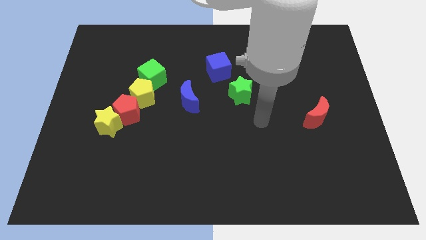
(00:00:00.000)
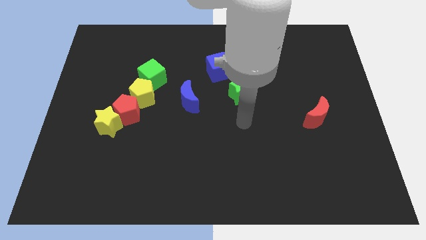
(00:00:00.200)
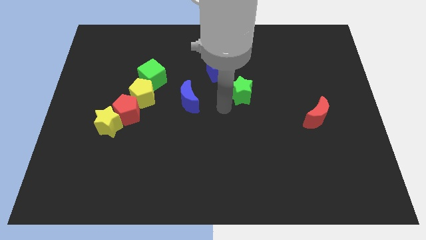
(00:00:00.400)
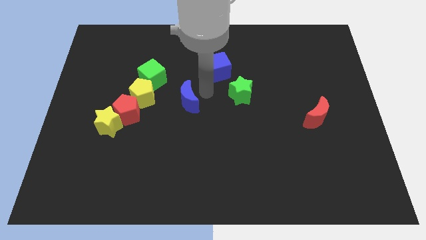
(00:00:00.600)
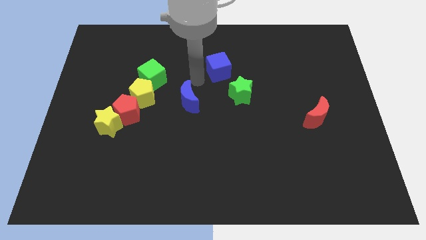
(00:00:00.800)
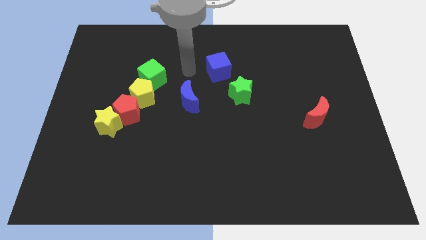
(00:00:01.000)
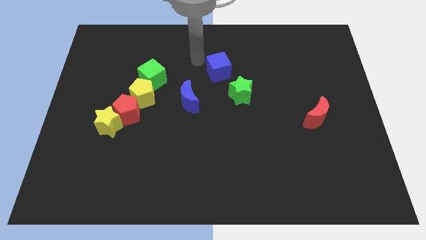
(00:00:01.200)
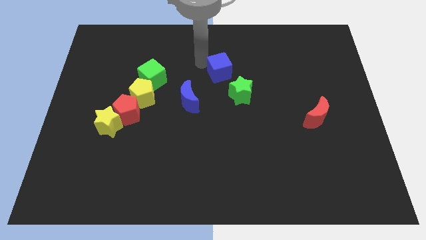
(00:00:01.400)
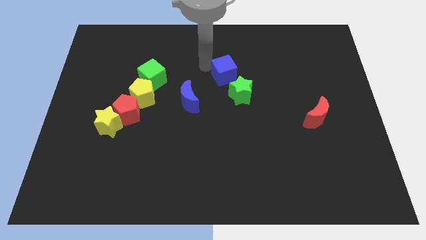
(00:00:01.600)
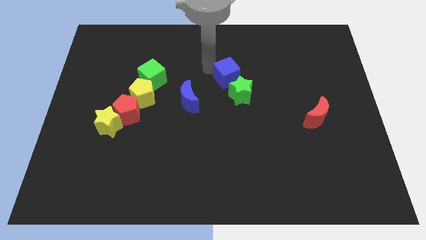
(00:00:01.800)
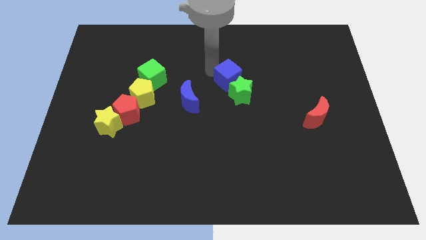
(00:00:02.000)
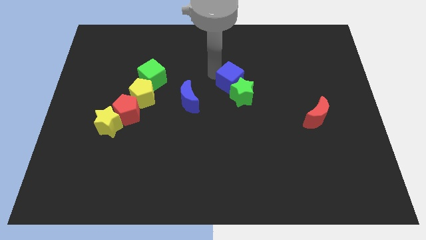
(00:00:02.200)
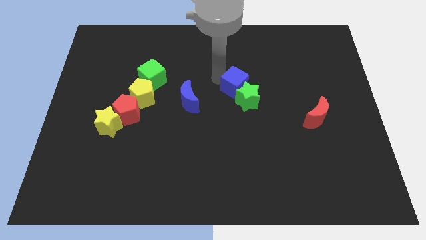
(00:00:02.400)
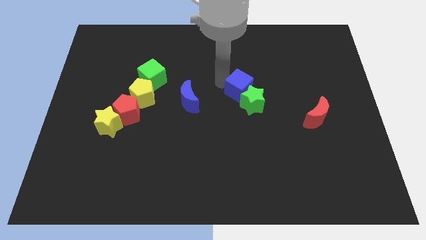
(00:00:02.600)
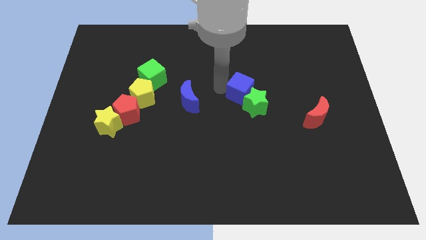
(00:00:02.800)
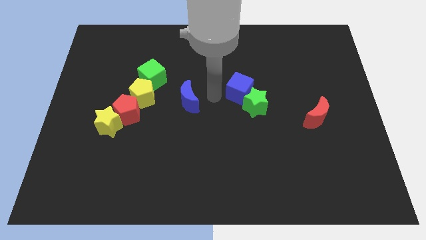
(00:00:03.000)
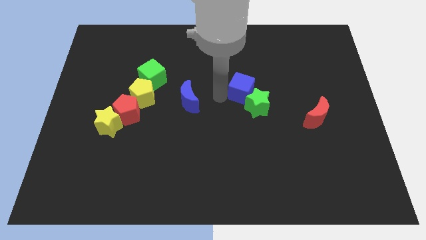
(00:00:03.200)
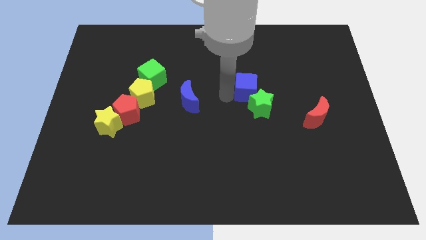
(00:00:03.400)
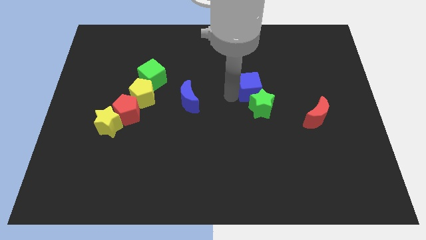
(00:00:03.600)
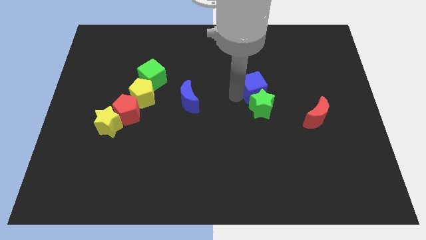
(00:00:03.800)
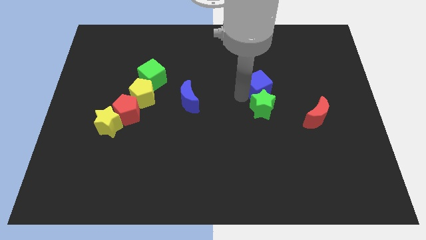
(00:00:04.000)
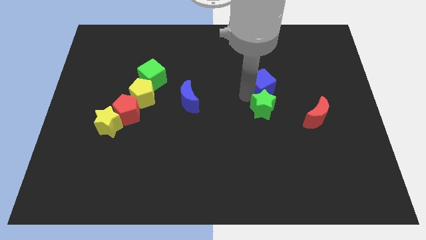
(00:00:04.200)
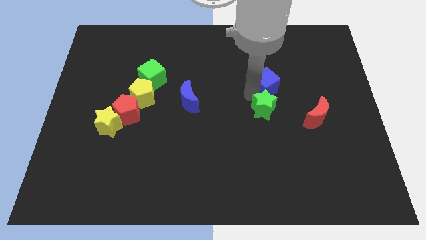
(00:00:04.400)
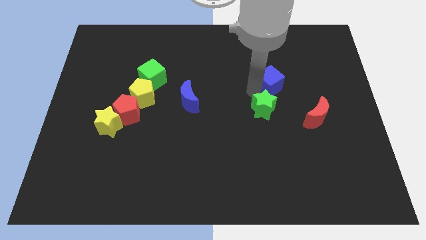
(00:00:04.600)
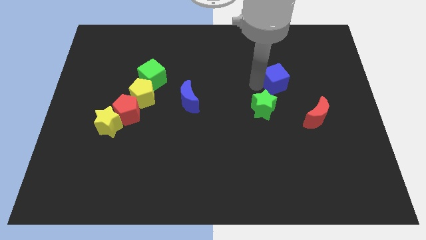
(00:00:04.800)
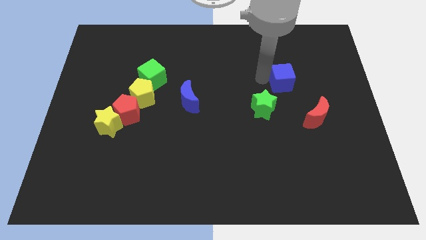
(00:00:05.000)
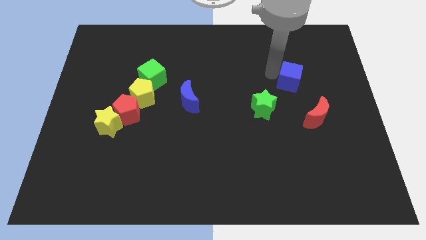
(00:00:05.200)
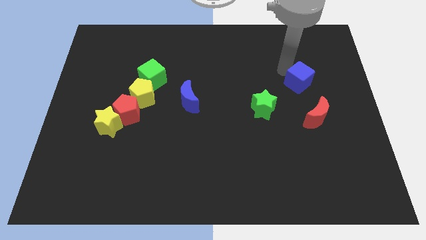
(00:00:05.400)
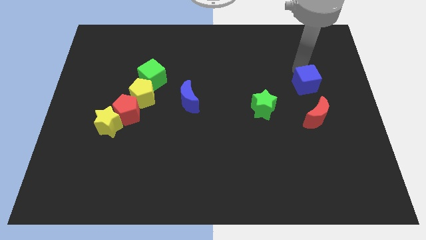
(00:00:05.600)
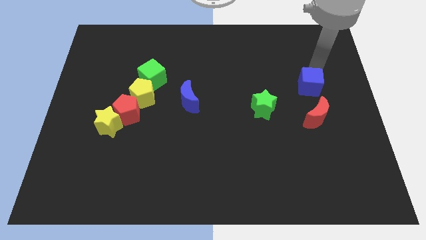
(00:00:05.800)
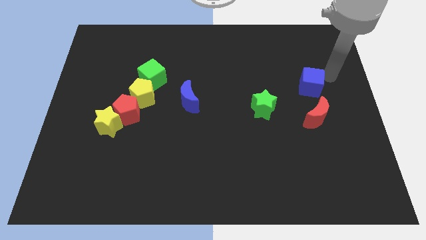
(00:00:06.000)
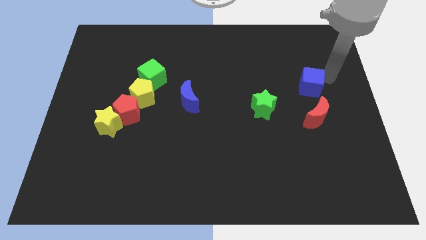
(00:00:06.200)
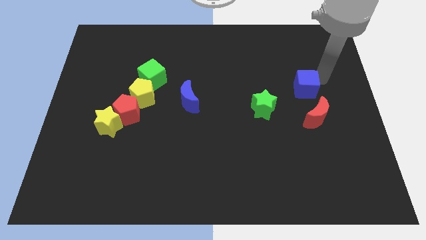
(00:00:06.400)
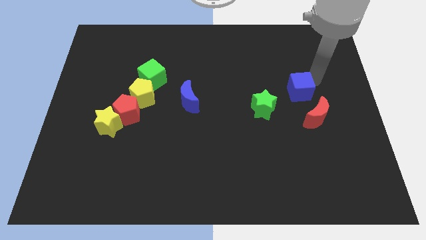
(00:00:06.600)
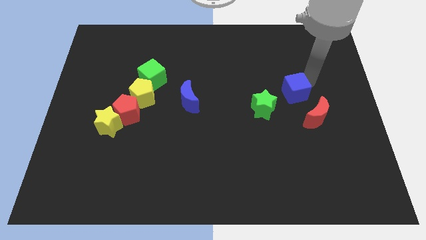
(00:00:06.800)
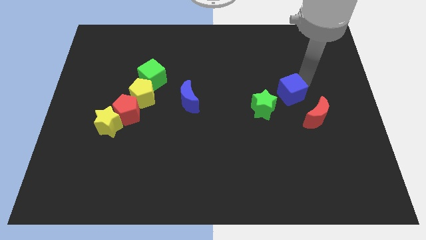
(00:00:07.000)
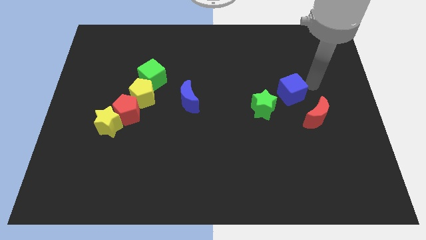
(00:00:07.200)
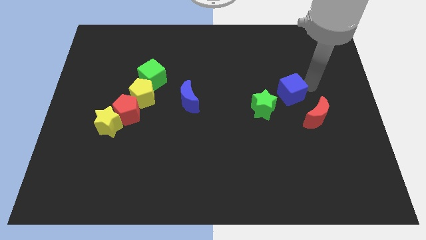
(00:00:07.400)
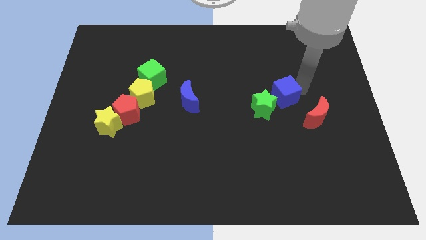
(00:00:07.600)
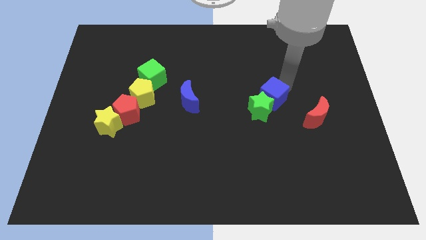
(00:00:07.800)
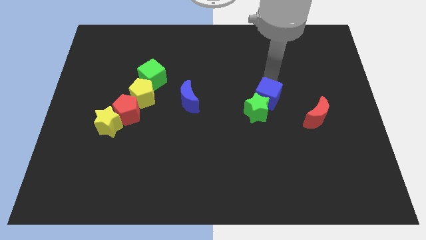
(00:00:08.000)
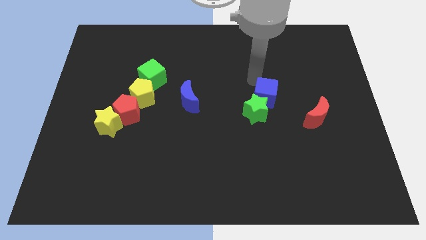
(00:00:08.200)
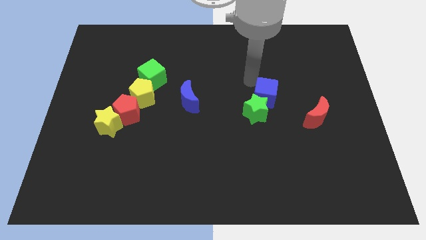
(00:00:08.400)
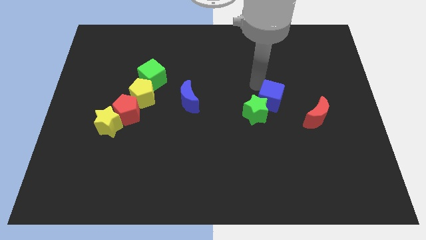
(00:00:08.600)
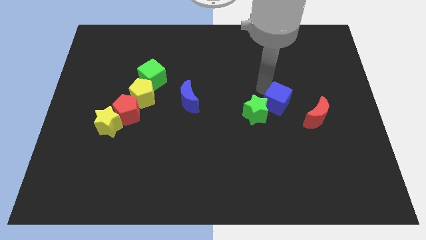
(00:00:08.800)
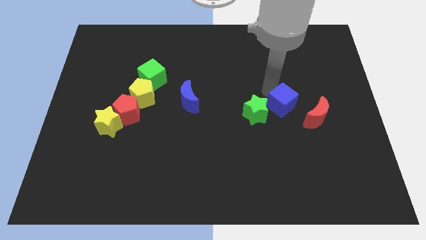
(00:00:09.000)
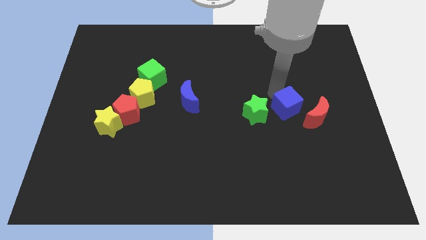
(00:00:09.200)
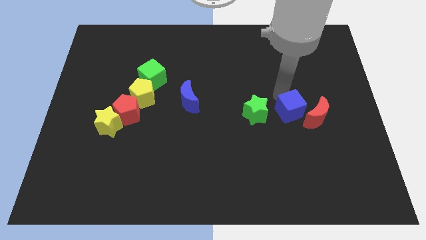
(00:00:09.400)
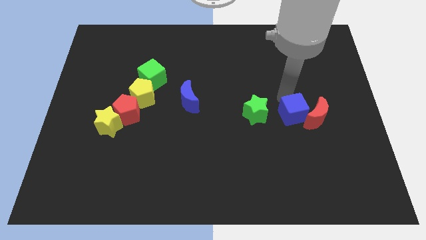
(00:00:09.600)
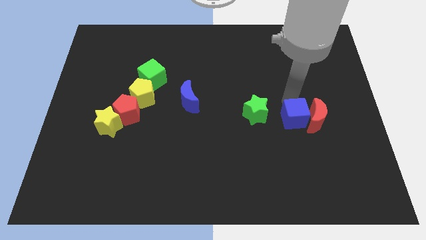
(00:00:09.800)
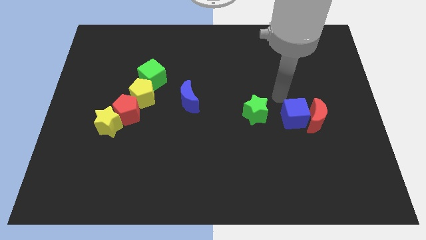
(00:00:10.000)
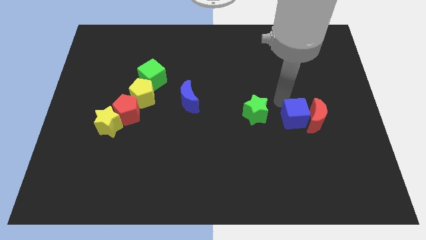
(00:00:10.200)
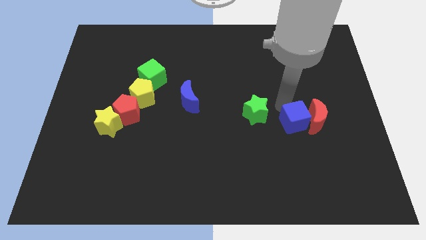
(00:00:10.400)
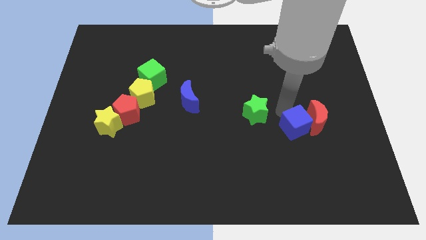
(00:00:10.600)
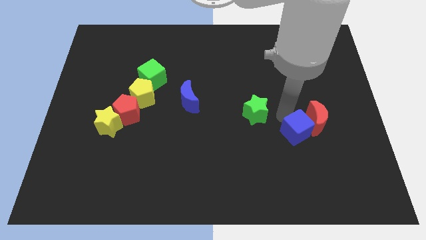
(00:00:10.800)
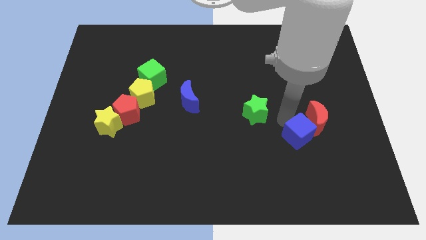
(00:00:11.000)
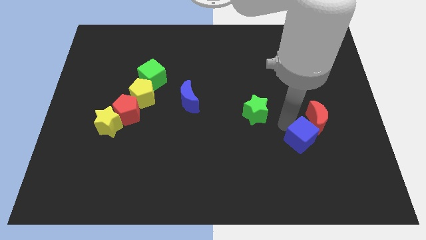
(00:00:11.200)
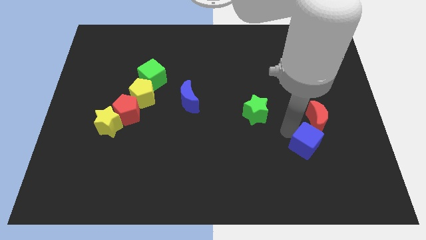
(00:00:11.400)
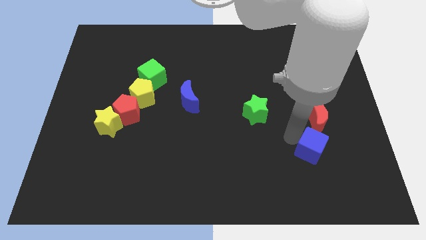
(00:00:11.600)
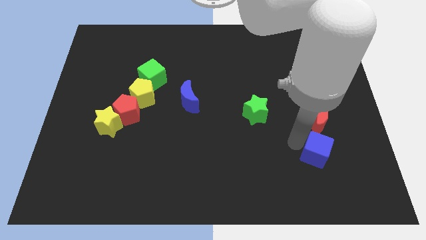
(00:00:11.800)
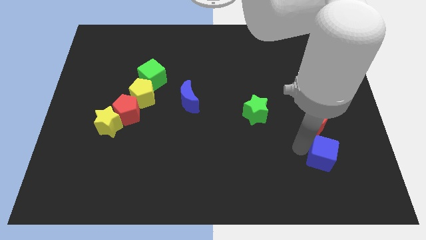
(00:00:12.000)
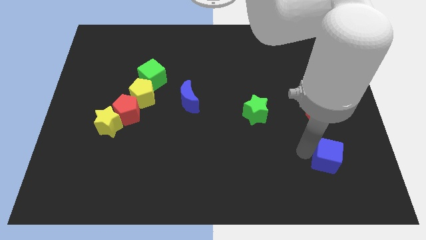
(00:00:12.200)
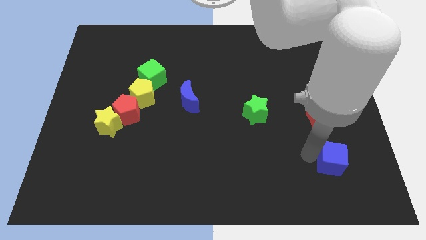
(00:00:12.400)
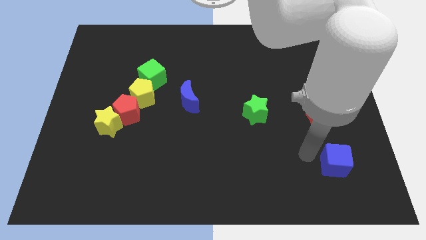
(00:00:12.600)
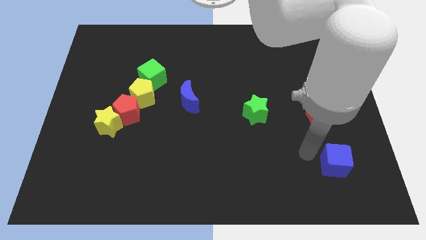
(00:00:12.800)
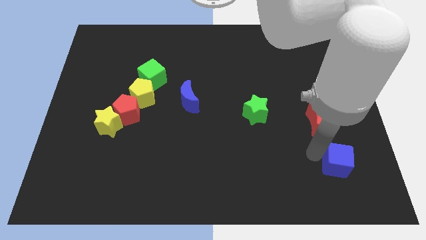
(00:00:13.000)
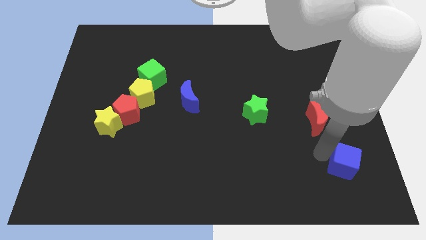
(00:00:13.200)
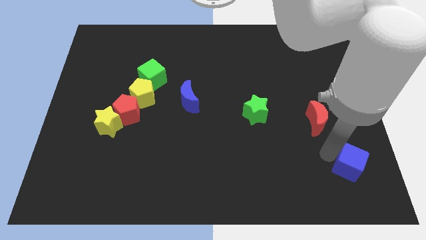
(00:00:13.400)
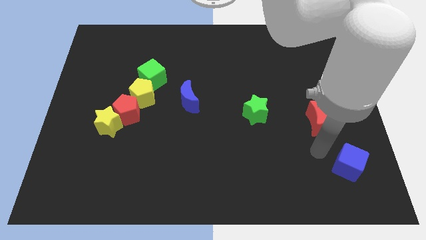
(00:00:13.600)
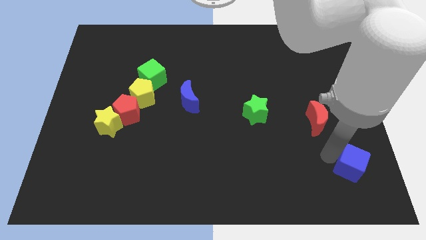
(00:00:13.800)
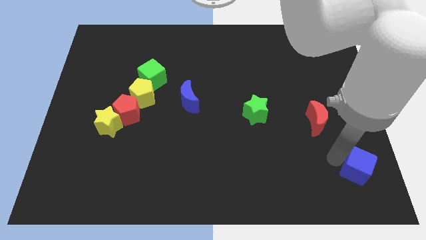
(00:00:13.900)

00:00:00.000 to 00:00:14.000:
put the blue cube to the bottom right

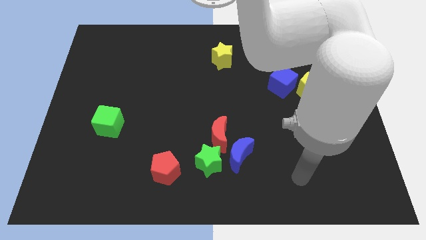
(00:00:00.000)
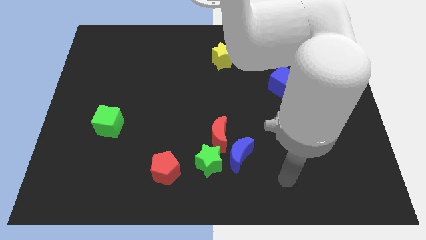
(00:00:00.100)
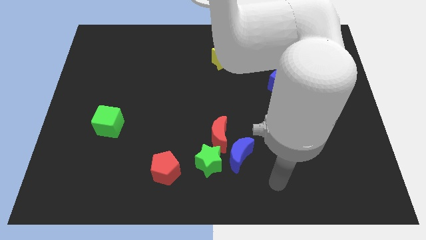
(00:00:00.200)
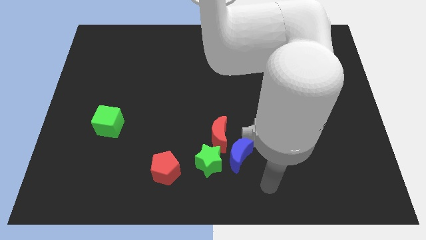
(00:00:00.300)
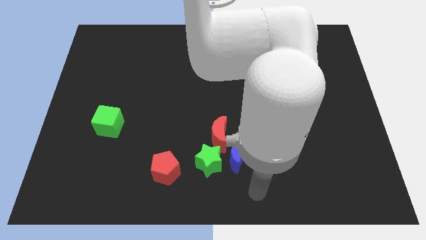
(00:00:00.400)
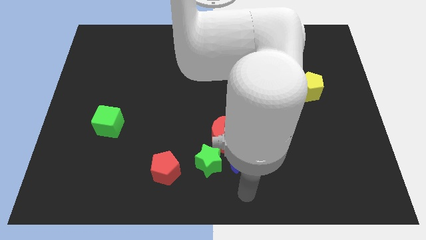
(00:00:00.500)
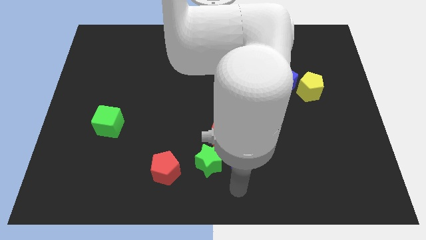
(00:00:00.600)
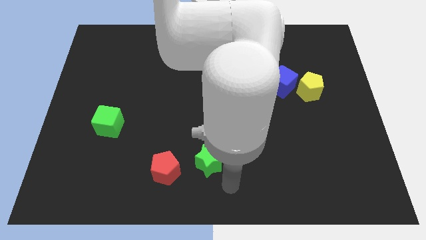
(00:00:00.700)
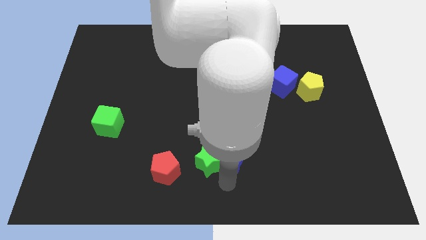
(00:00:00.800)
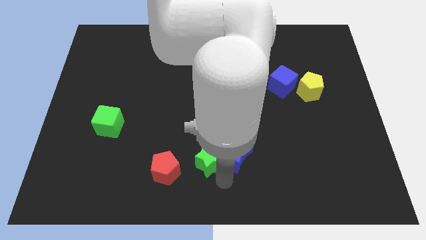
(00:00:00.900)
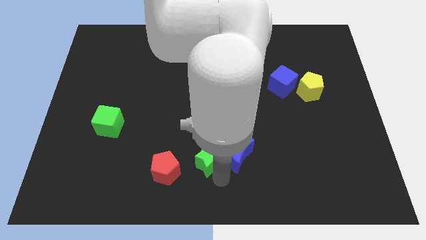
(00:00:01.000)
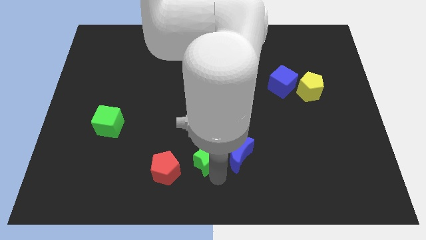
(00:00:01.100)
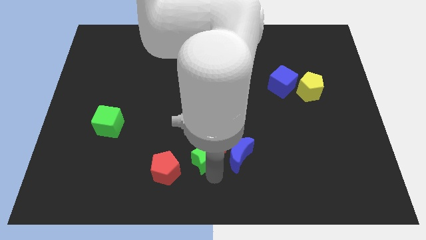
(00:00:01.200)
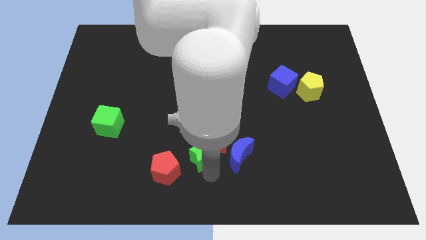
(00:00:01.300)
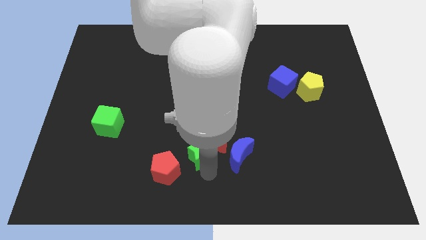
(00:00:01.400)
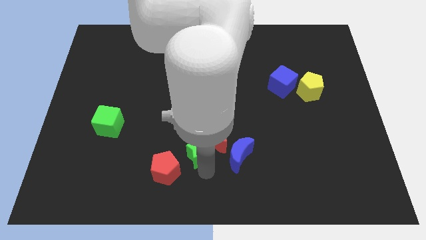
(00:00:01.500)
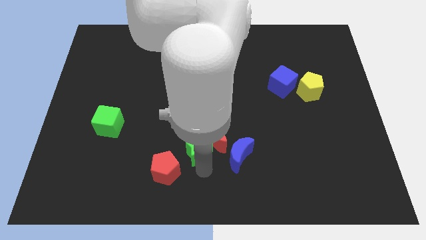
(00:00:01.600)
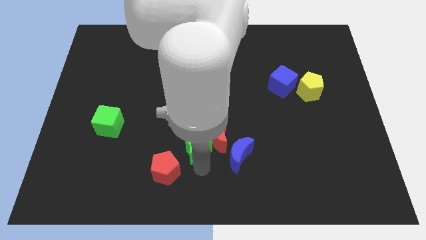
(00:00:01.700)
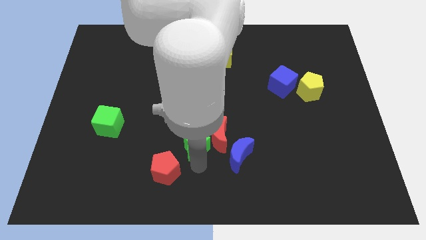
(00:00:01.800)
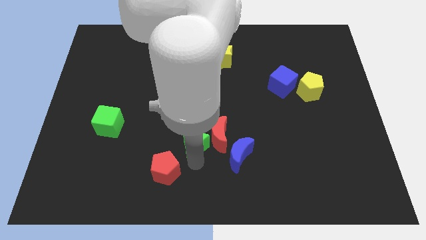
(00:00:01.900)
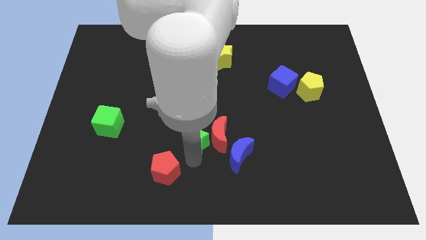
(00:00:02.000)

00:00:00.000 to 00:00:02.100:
push the green star to the middle of the board
